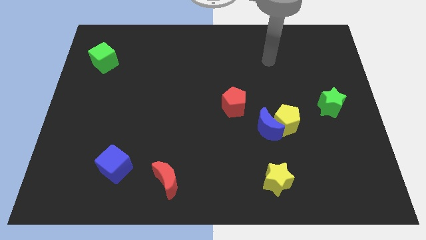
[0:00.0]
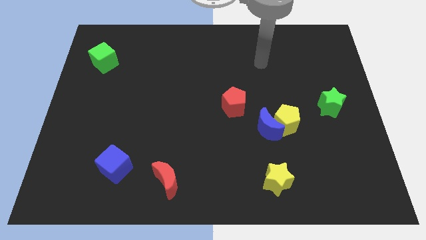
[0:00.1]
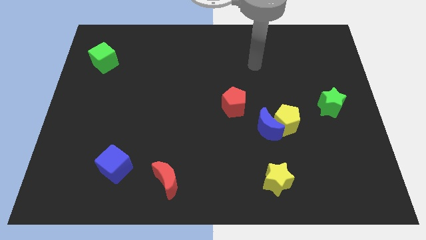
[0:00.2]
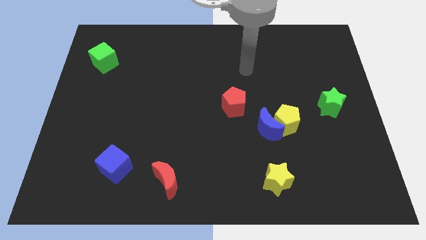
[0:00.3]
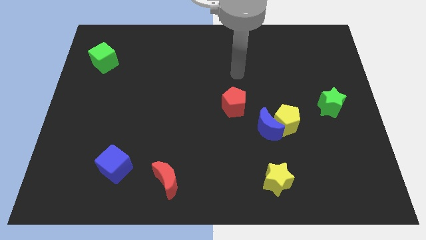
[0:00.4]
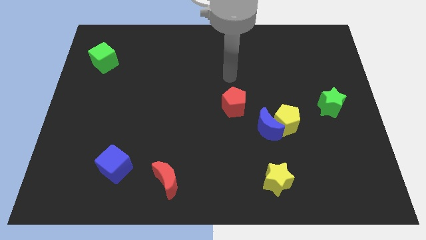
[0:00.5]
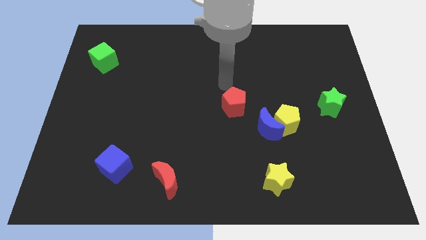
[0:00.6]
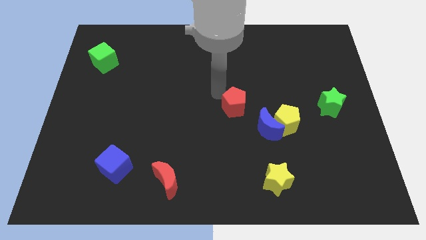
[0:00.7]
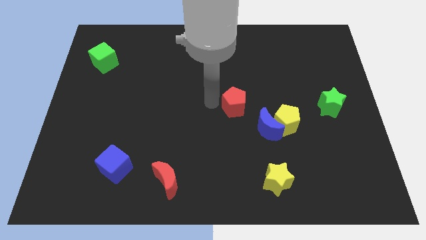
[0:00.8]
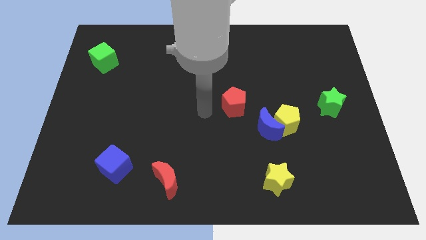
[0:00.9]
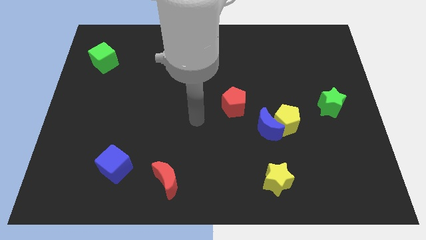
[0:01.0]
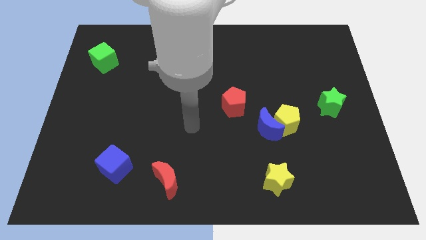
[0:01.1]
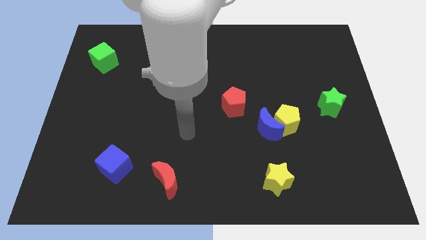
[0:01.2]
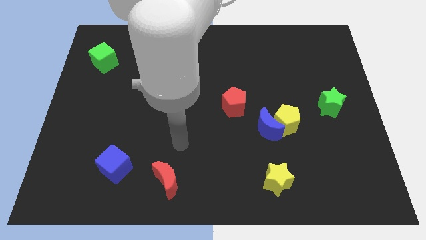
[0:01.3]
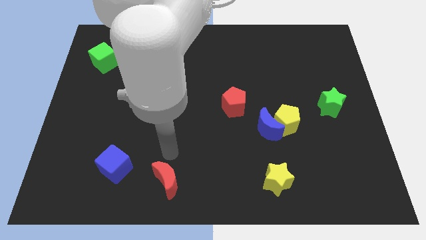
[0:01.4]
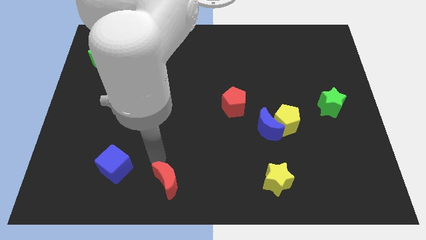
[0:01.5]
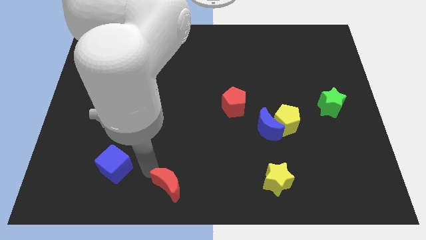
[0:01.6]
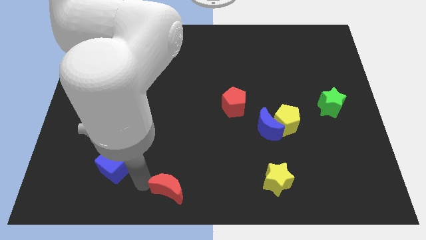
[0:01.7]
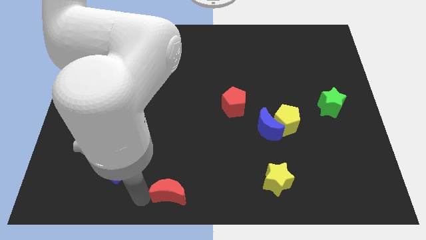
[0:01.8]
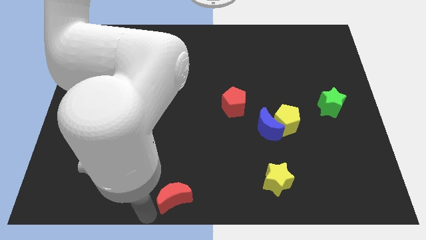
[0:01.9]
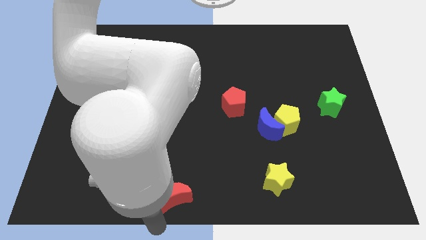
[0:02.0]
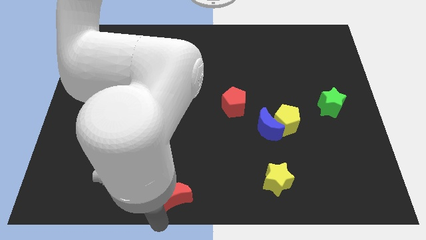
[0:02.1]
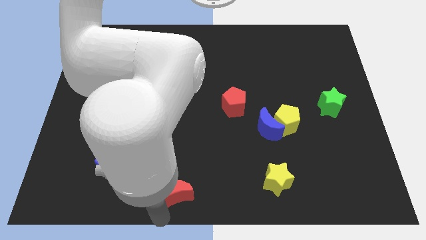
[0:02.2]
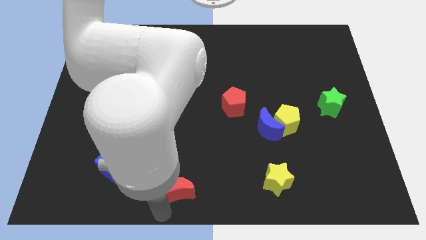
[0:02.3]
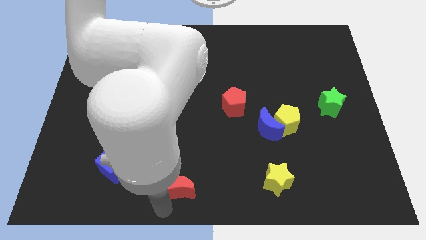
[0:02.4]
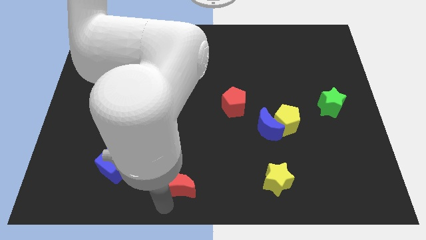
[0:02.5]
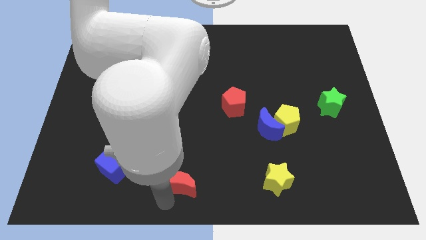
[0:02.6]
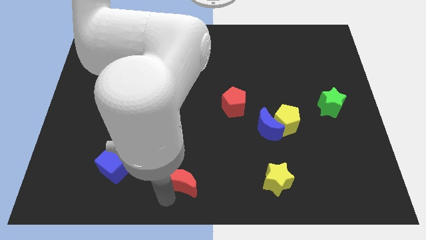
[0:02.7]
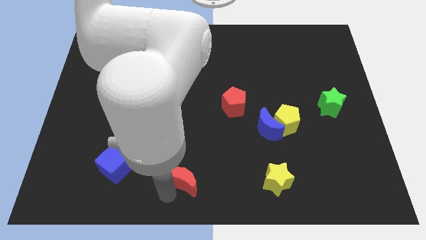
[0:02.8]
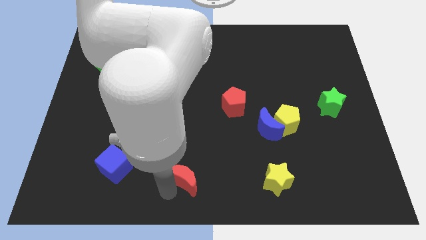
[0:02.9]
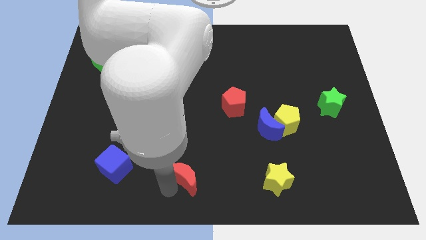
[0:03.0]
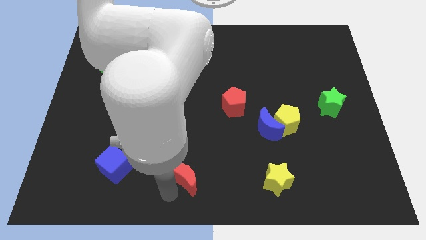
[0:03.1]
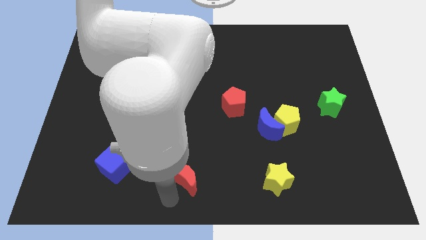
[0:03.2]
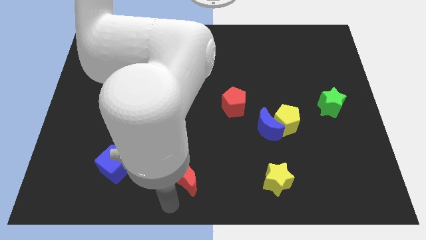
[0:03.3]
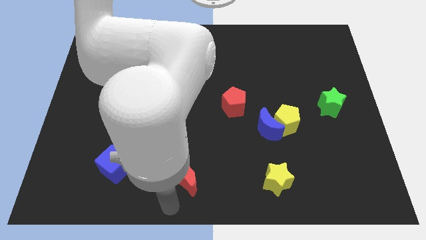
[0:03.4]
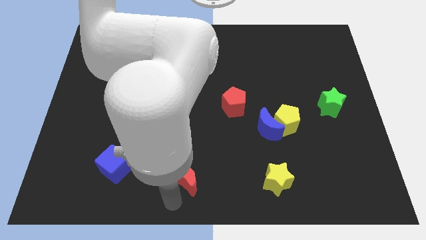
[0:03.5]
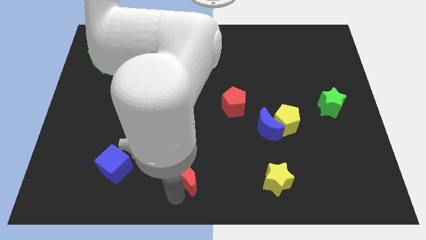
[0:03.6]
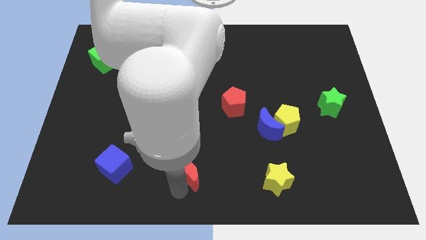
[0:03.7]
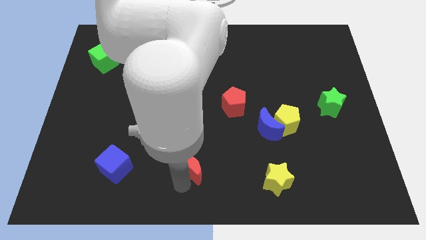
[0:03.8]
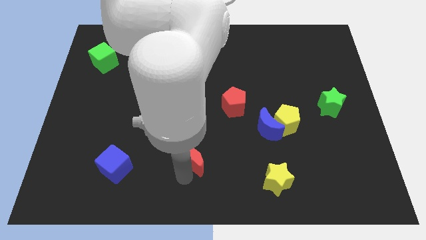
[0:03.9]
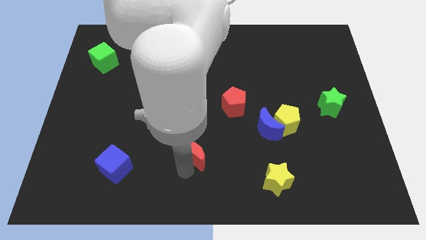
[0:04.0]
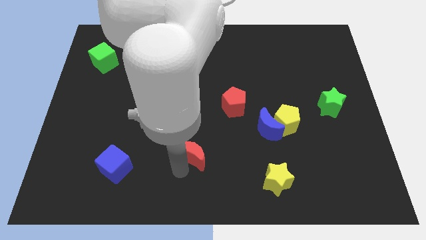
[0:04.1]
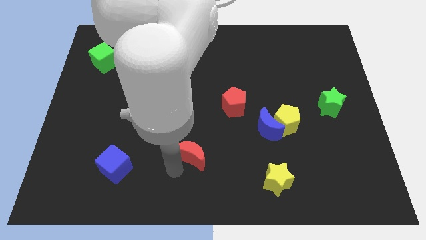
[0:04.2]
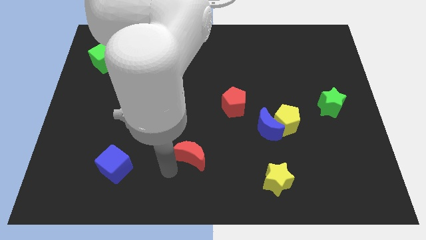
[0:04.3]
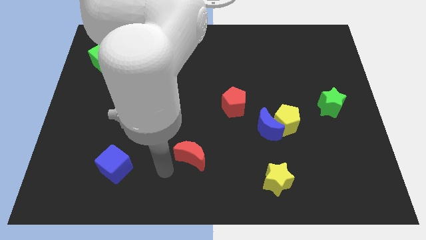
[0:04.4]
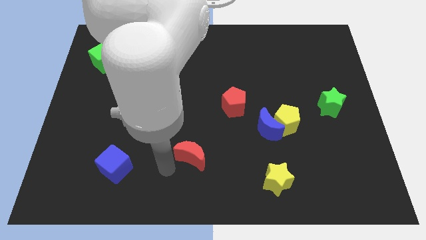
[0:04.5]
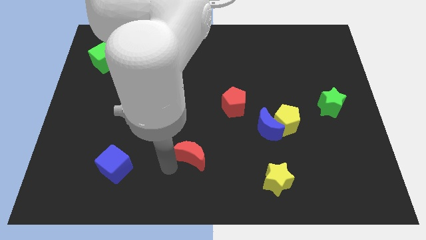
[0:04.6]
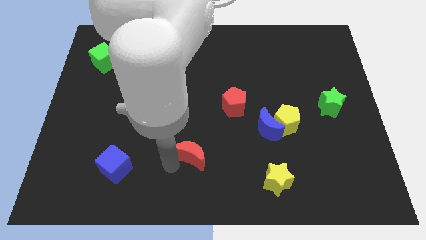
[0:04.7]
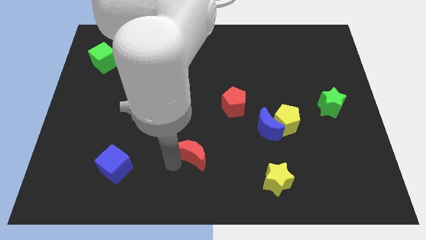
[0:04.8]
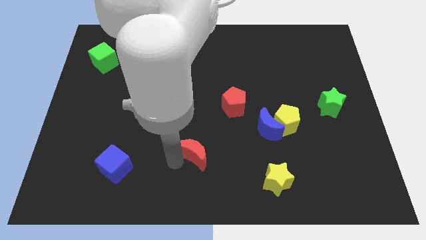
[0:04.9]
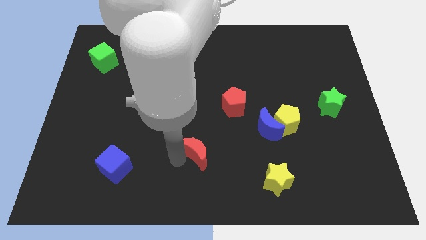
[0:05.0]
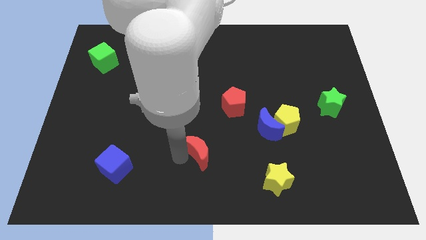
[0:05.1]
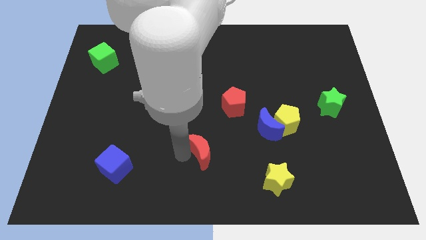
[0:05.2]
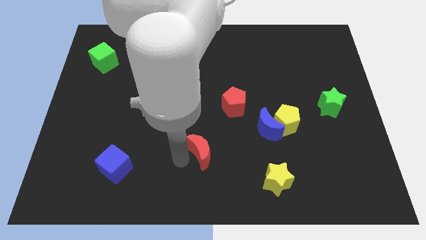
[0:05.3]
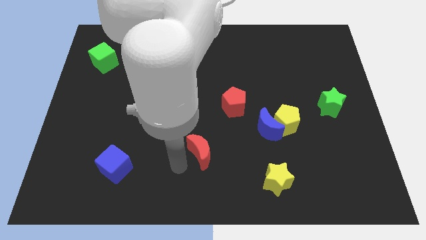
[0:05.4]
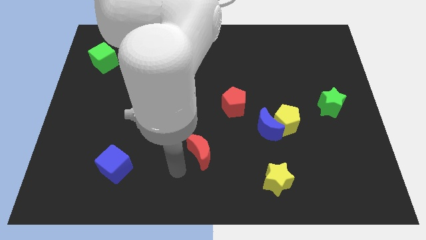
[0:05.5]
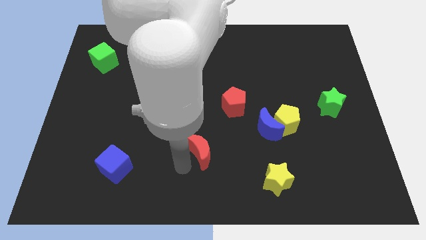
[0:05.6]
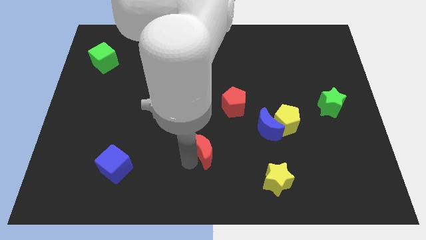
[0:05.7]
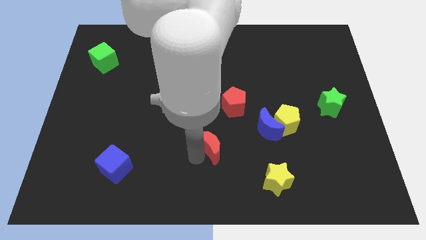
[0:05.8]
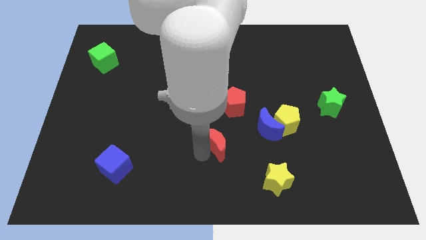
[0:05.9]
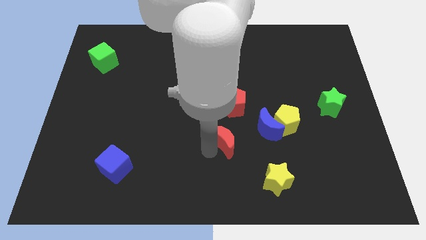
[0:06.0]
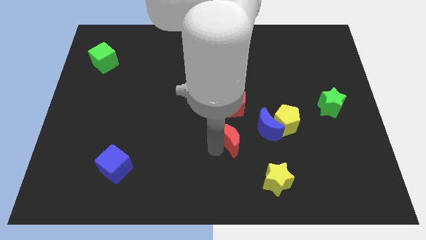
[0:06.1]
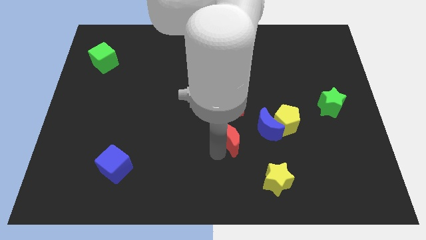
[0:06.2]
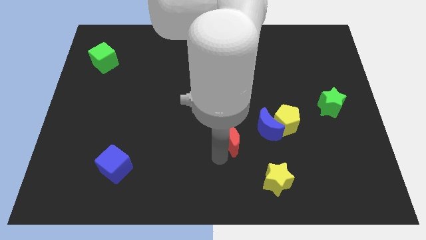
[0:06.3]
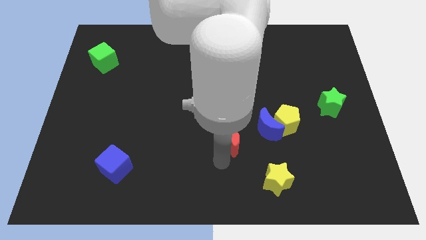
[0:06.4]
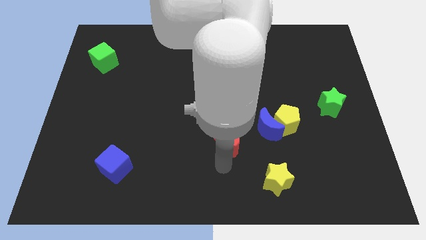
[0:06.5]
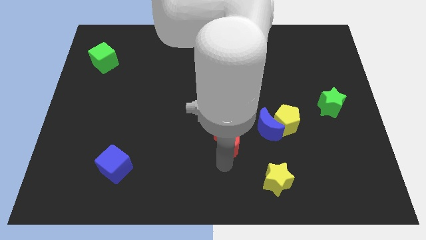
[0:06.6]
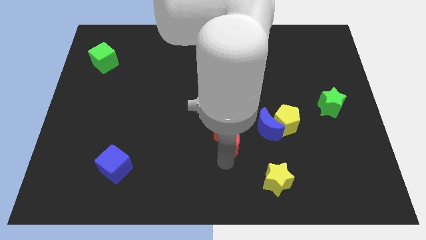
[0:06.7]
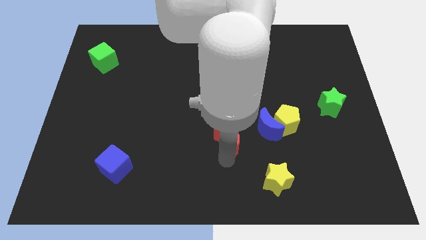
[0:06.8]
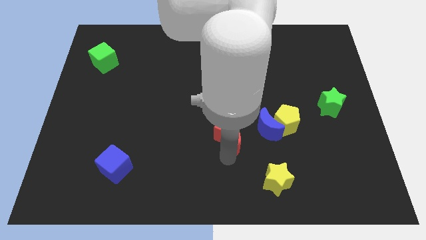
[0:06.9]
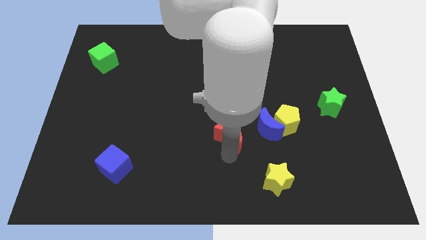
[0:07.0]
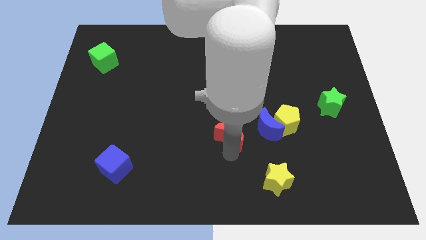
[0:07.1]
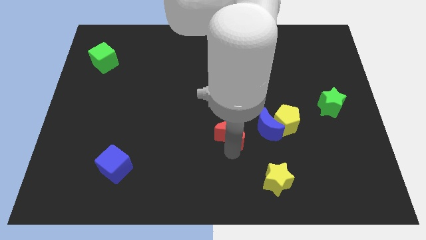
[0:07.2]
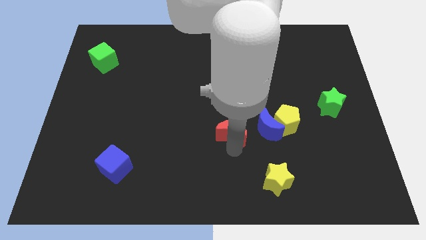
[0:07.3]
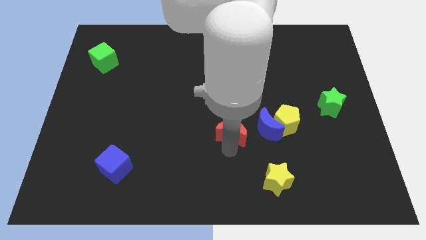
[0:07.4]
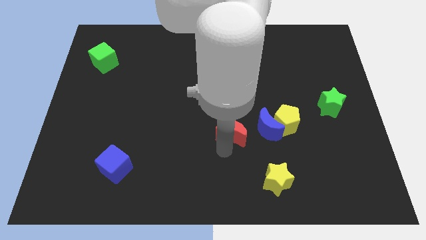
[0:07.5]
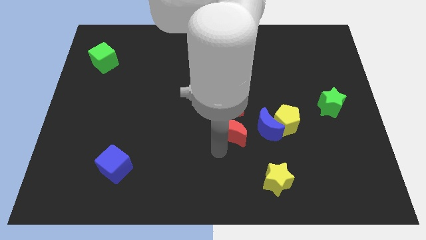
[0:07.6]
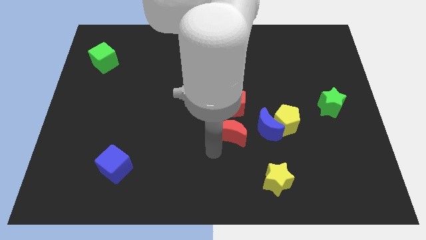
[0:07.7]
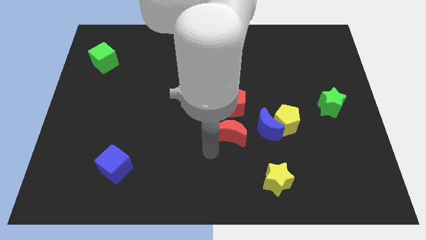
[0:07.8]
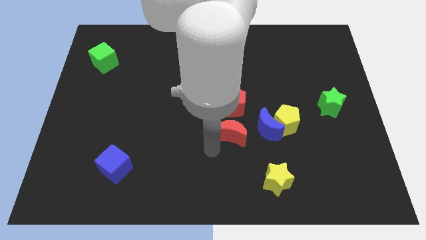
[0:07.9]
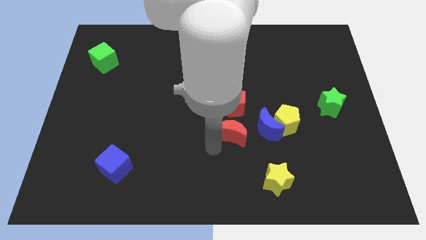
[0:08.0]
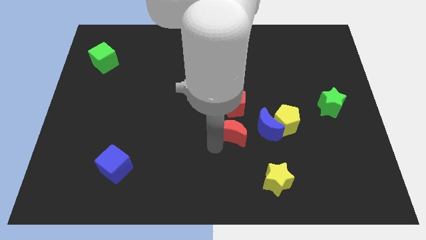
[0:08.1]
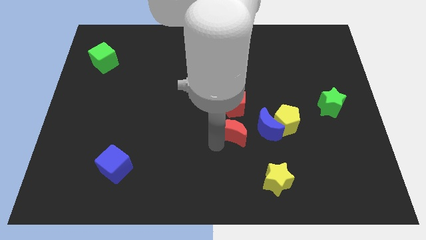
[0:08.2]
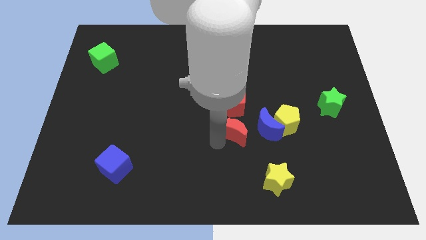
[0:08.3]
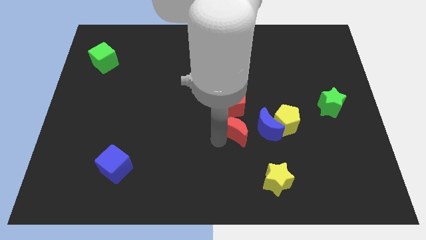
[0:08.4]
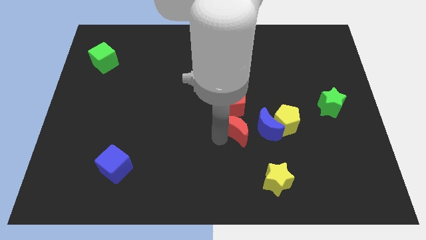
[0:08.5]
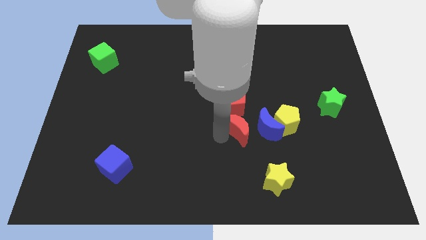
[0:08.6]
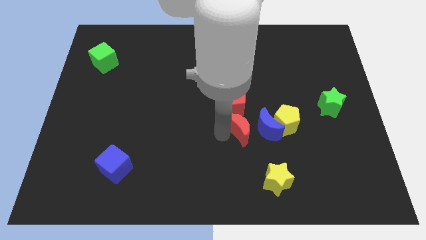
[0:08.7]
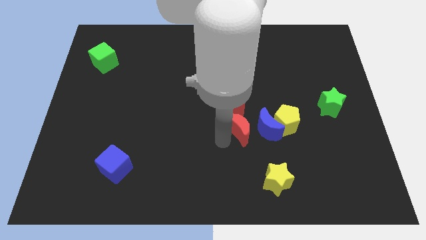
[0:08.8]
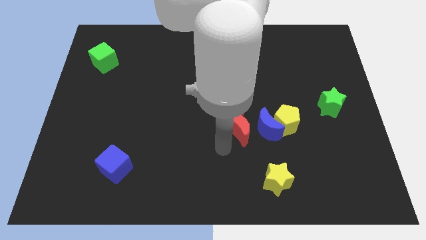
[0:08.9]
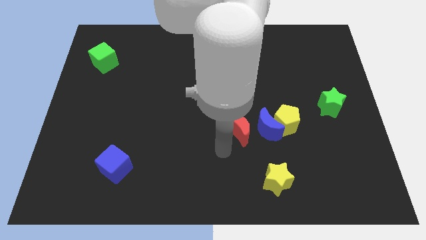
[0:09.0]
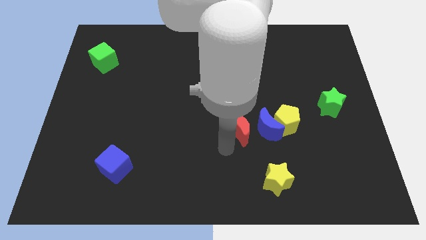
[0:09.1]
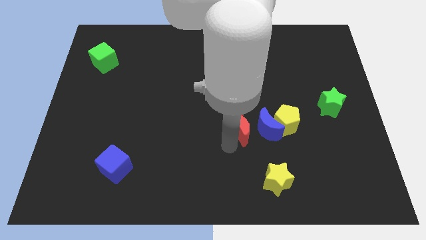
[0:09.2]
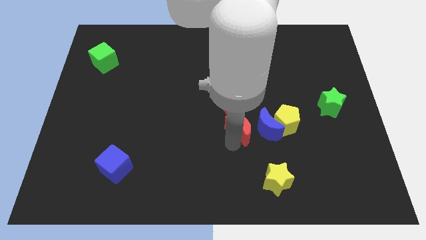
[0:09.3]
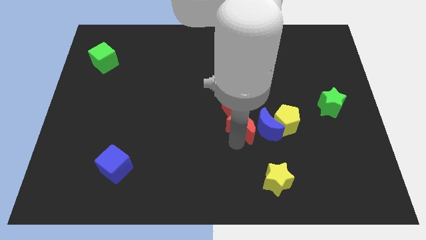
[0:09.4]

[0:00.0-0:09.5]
slide the red moon up and right
